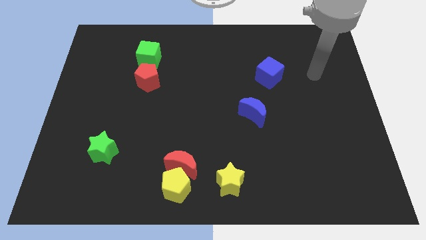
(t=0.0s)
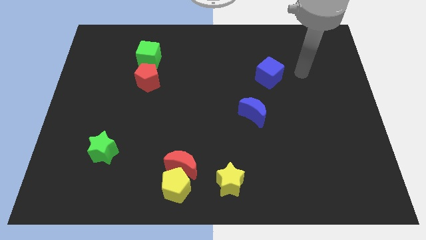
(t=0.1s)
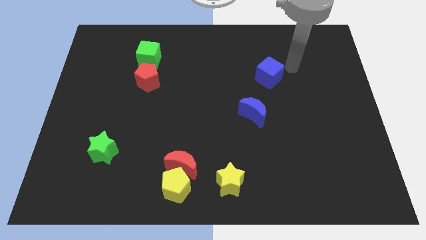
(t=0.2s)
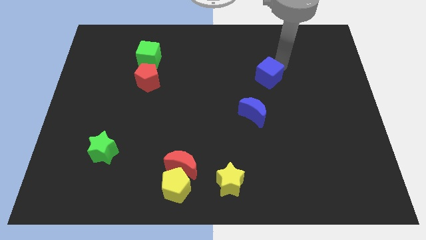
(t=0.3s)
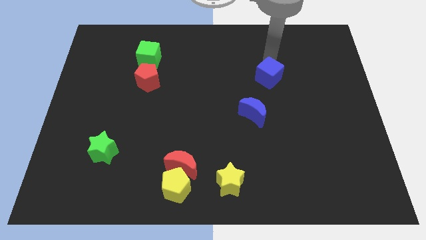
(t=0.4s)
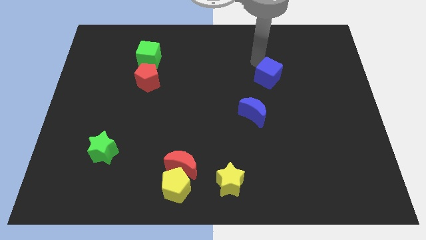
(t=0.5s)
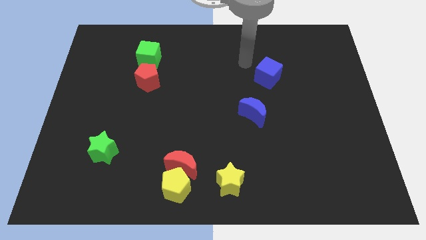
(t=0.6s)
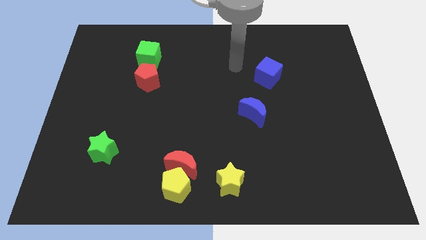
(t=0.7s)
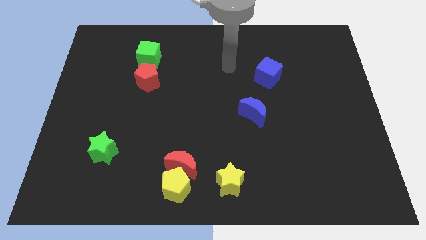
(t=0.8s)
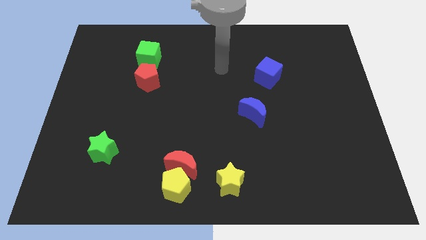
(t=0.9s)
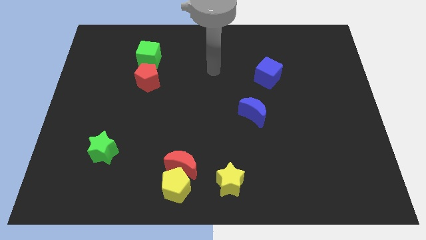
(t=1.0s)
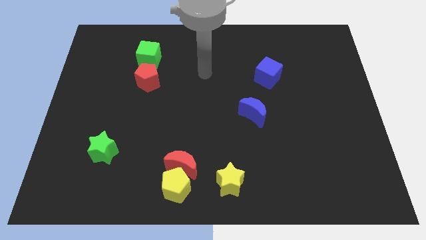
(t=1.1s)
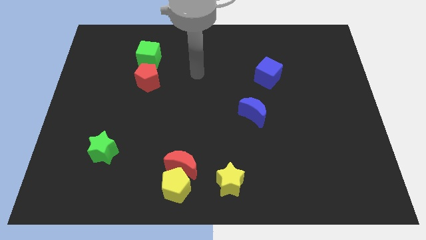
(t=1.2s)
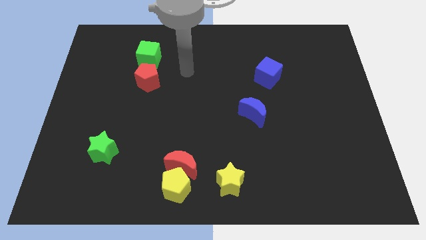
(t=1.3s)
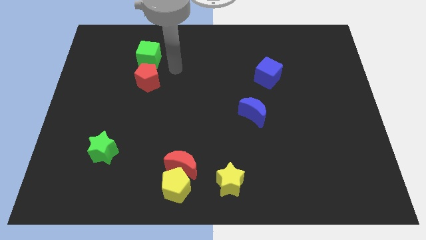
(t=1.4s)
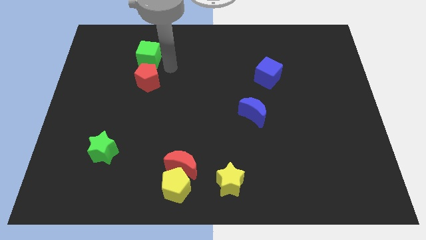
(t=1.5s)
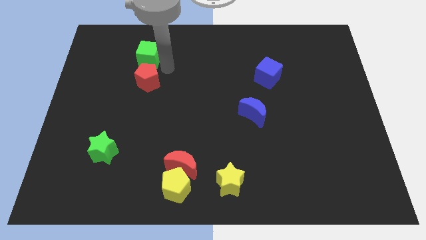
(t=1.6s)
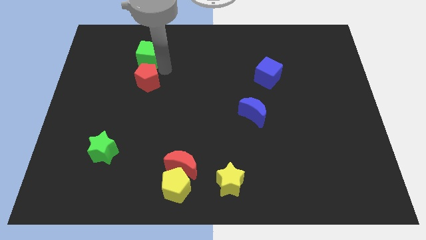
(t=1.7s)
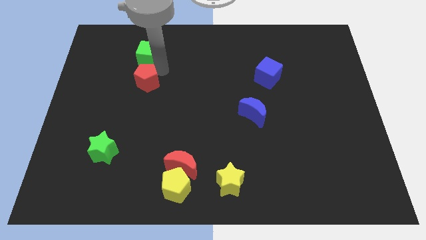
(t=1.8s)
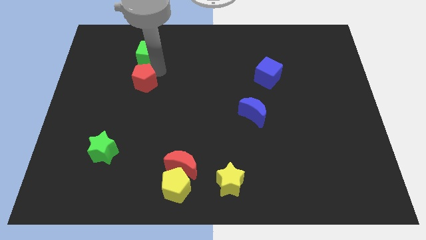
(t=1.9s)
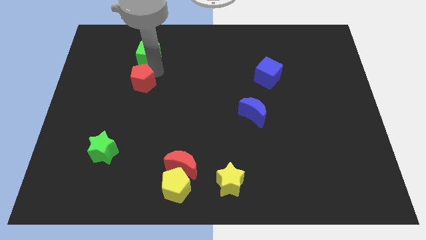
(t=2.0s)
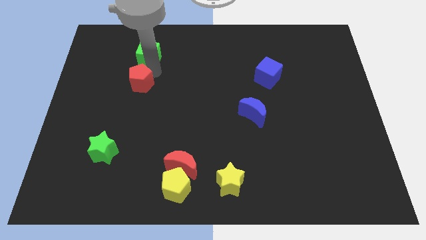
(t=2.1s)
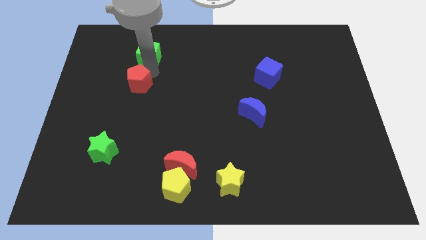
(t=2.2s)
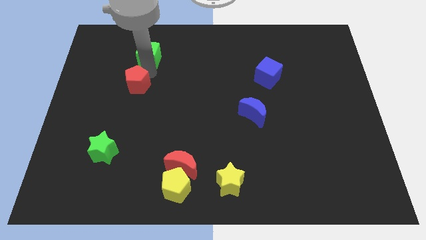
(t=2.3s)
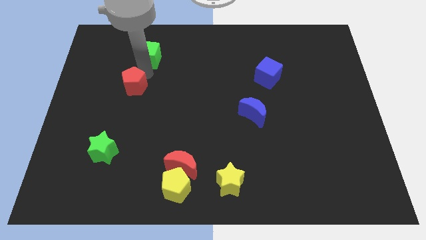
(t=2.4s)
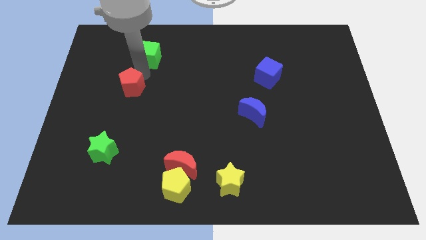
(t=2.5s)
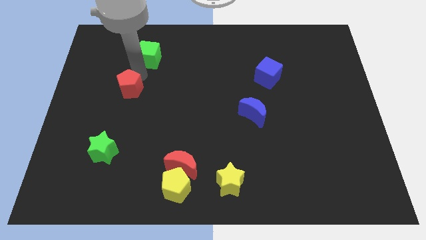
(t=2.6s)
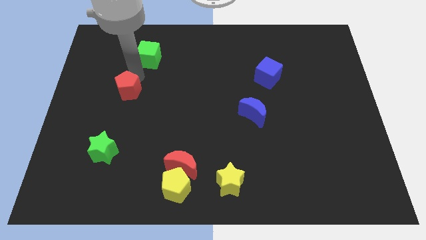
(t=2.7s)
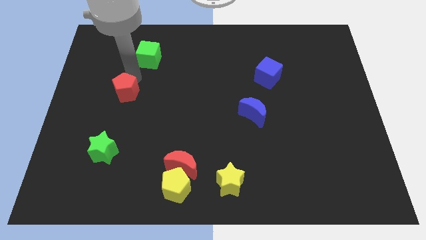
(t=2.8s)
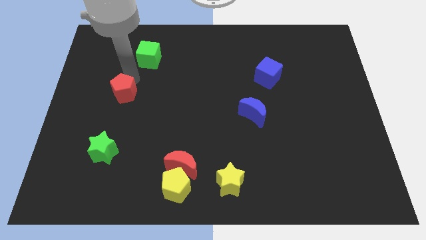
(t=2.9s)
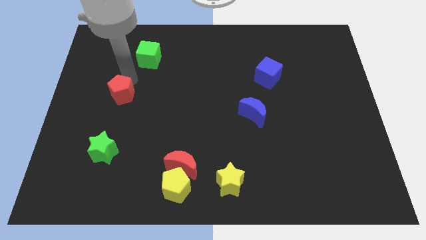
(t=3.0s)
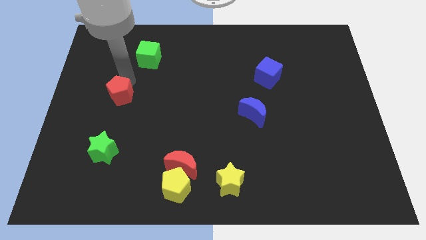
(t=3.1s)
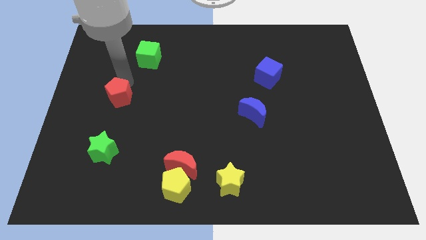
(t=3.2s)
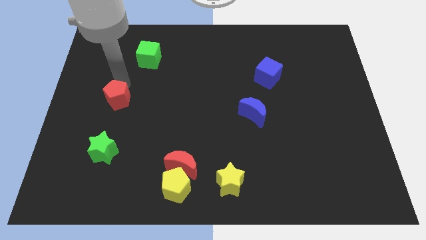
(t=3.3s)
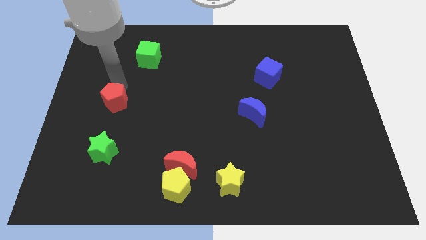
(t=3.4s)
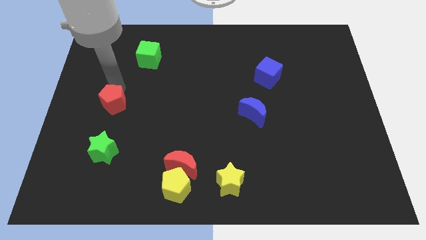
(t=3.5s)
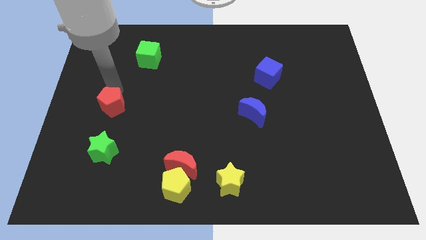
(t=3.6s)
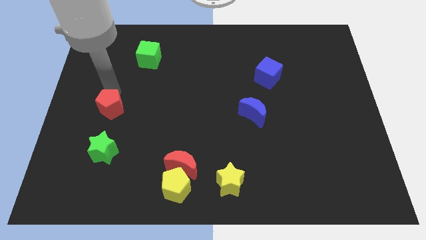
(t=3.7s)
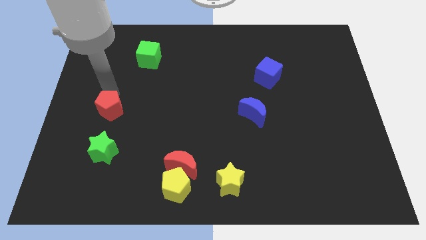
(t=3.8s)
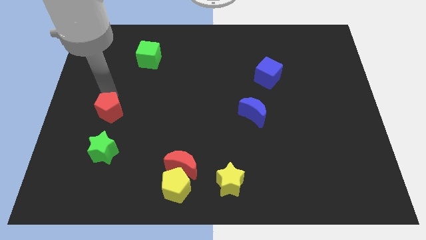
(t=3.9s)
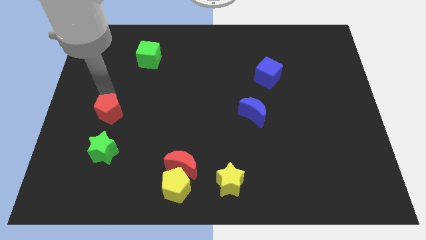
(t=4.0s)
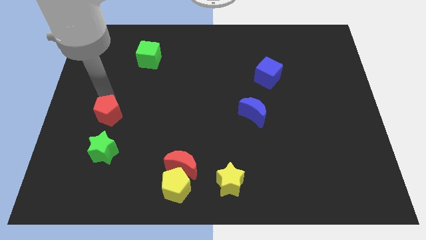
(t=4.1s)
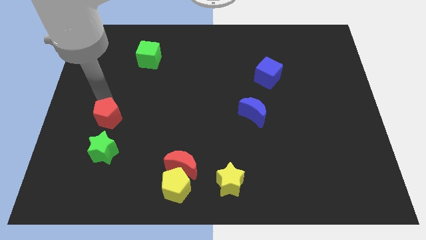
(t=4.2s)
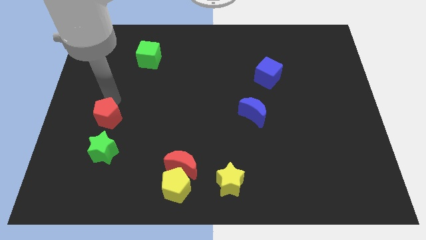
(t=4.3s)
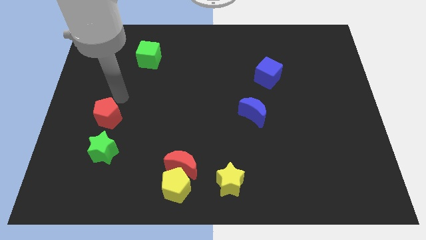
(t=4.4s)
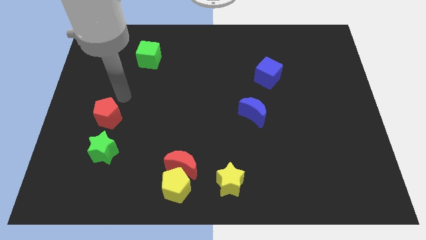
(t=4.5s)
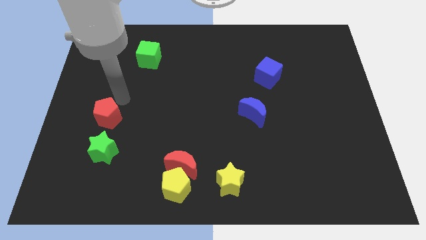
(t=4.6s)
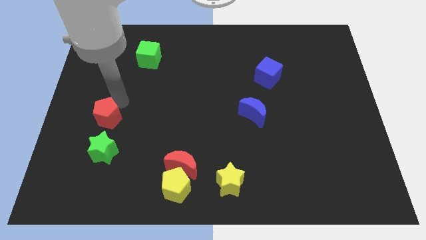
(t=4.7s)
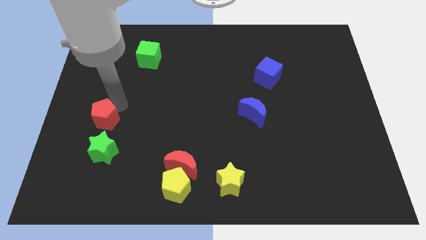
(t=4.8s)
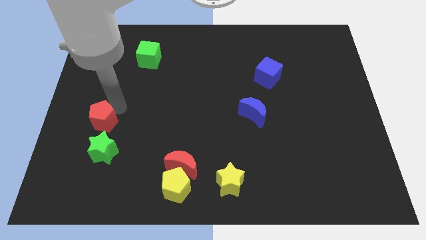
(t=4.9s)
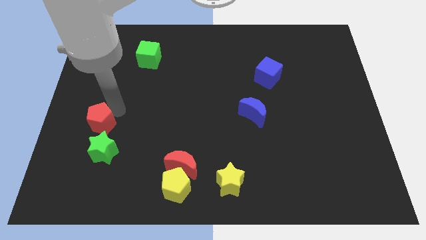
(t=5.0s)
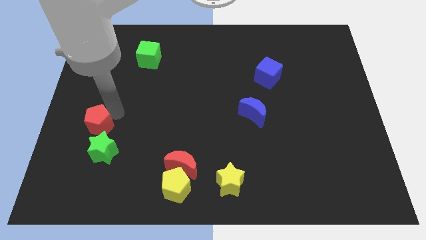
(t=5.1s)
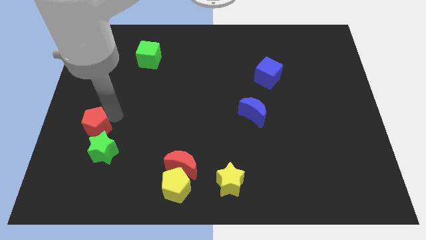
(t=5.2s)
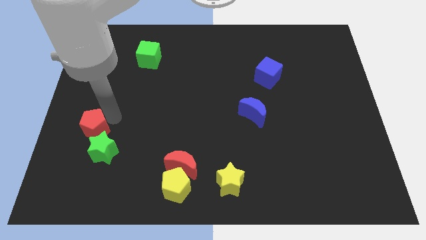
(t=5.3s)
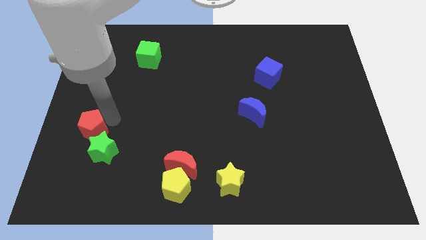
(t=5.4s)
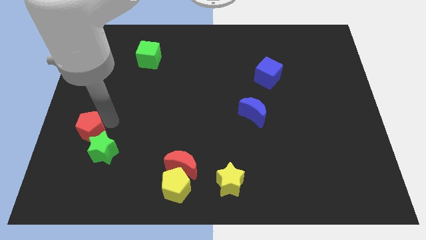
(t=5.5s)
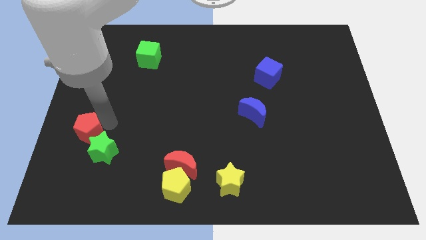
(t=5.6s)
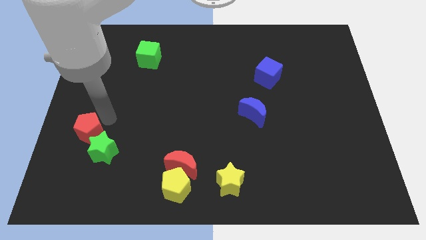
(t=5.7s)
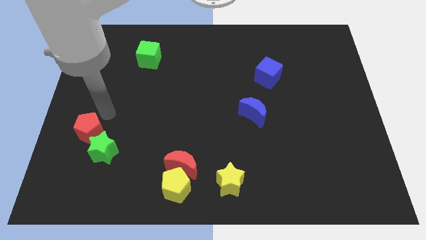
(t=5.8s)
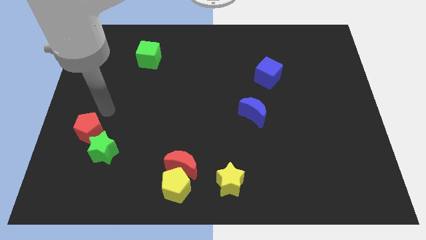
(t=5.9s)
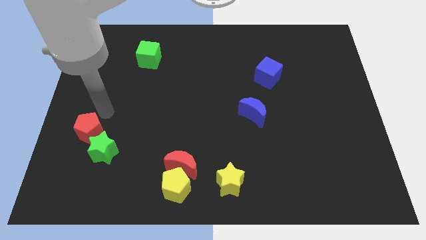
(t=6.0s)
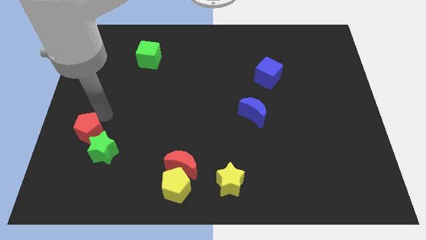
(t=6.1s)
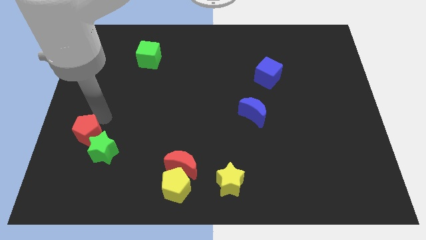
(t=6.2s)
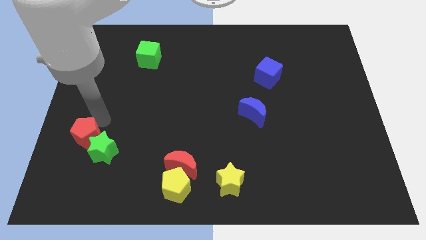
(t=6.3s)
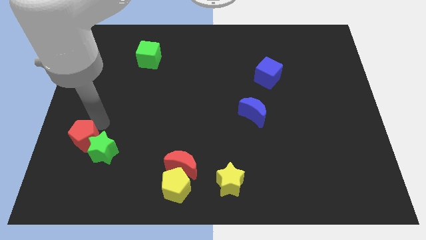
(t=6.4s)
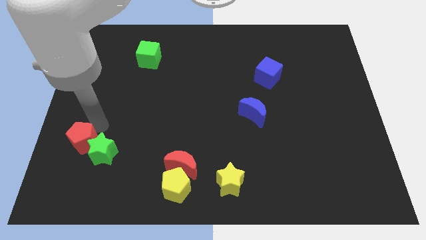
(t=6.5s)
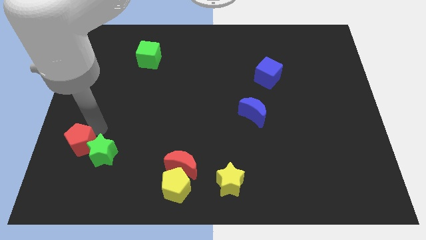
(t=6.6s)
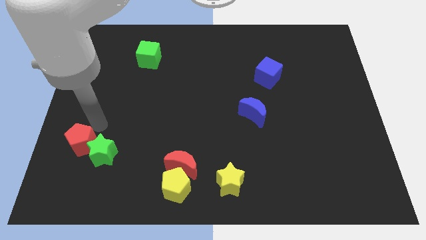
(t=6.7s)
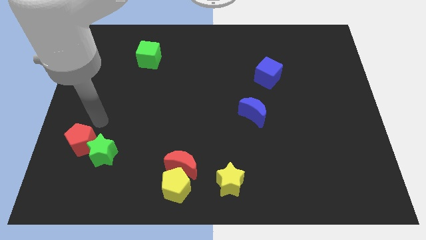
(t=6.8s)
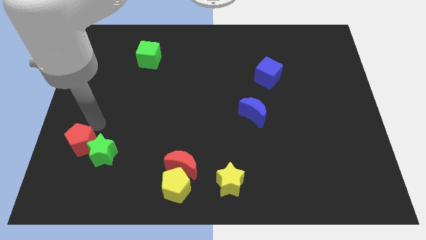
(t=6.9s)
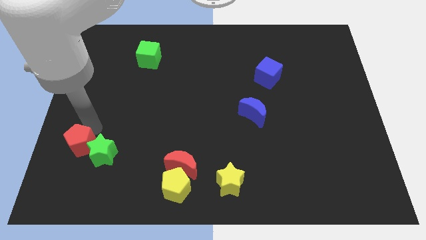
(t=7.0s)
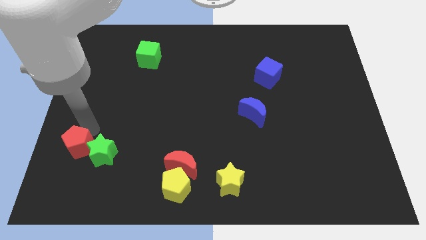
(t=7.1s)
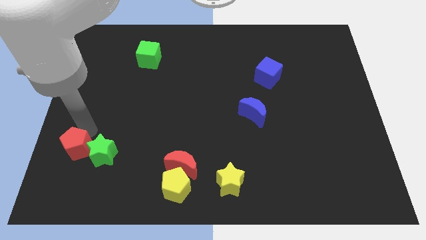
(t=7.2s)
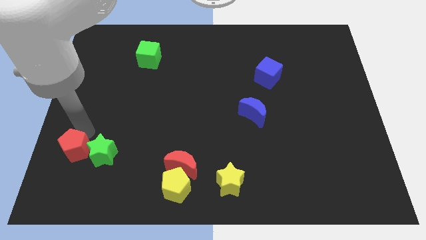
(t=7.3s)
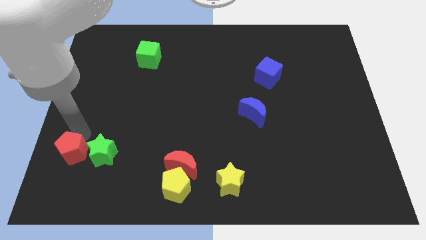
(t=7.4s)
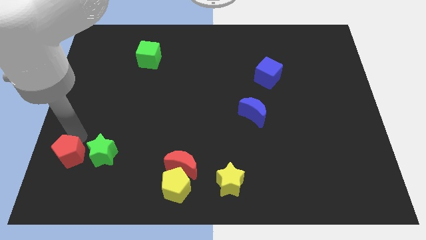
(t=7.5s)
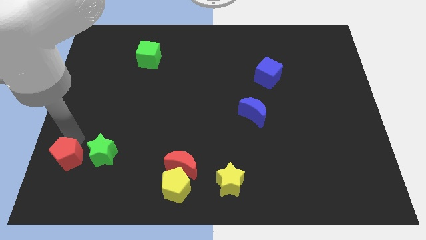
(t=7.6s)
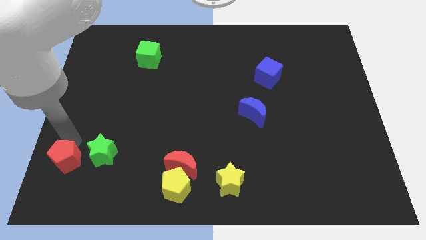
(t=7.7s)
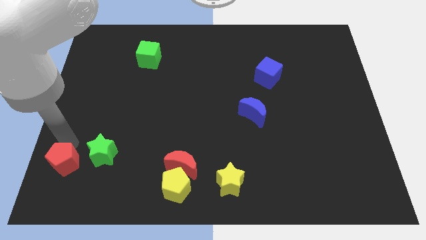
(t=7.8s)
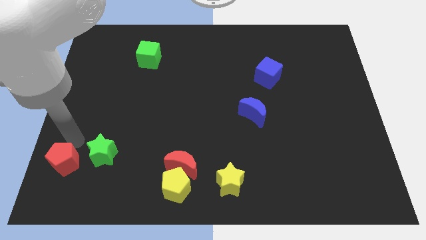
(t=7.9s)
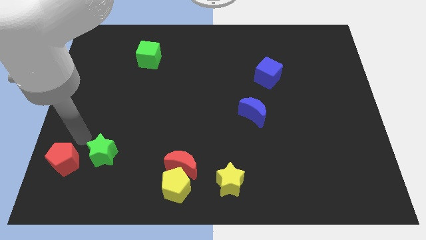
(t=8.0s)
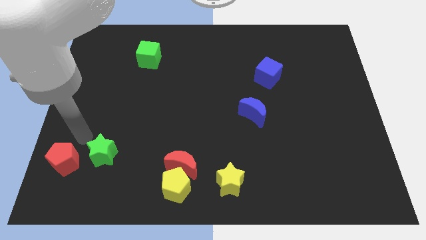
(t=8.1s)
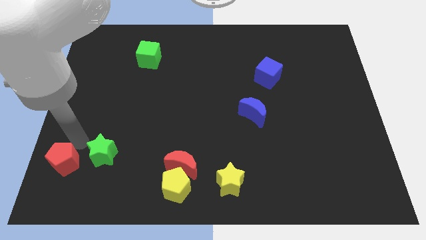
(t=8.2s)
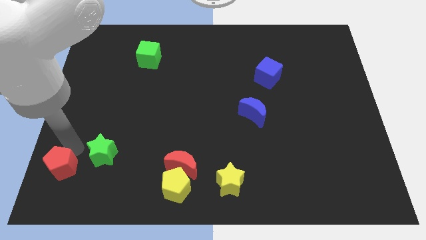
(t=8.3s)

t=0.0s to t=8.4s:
slide the red pentagon to the bottom left of the board
